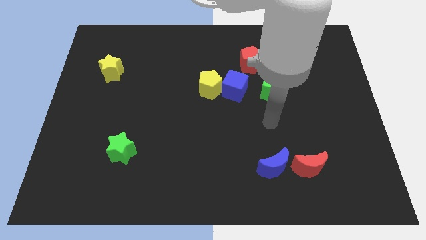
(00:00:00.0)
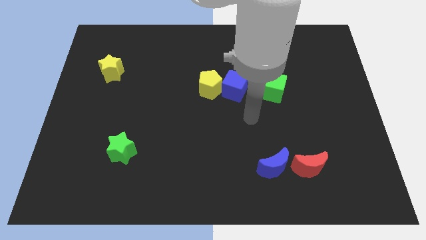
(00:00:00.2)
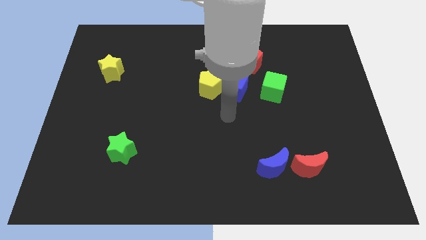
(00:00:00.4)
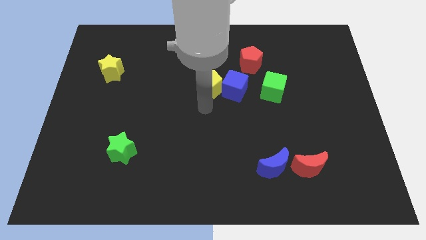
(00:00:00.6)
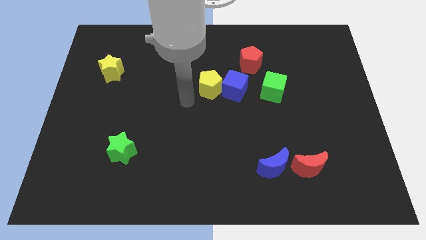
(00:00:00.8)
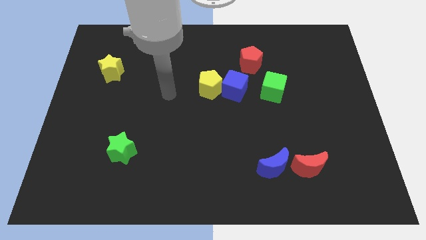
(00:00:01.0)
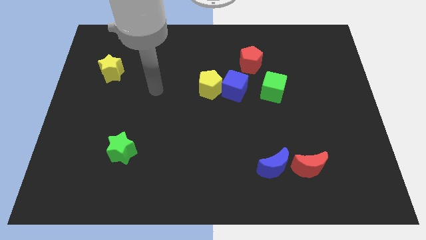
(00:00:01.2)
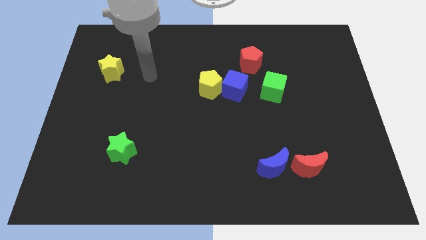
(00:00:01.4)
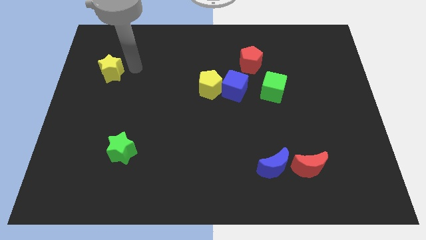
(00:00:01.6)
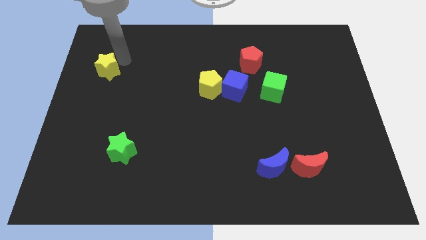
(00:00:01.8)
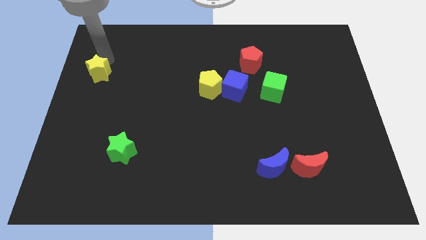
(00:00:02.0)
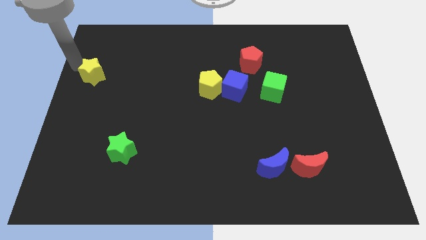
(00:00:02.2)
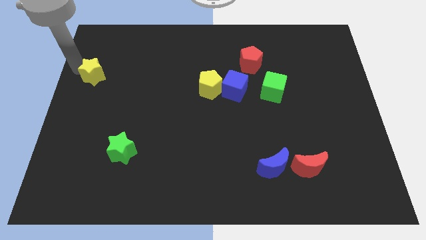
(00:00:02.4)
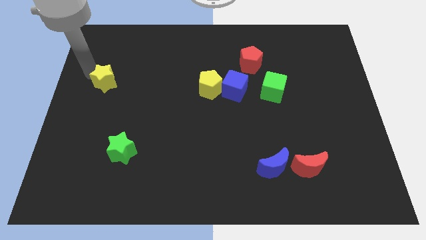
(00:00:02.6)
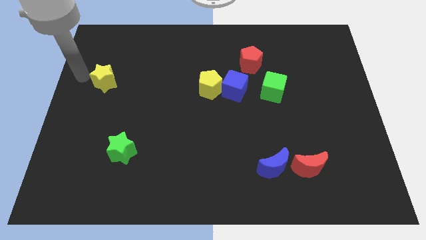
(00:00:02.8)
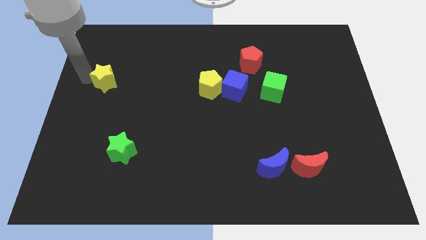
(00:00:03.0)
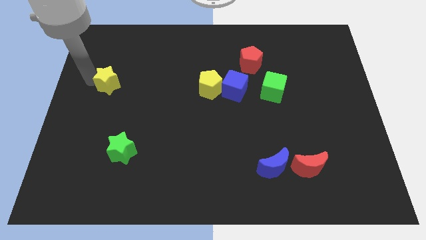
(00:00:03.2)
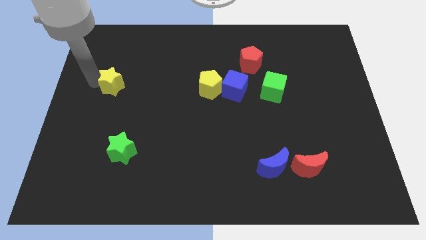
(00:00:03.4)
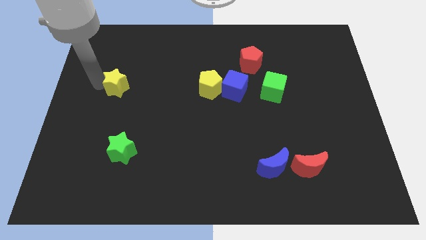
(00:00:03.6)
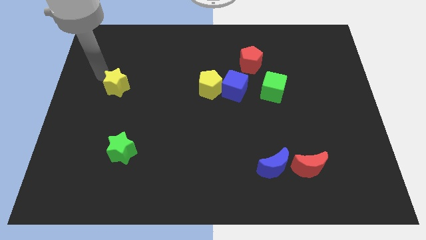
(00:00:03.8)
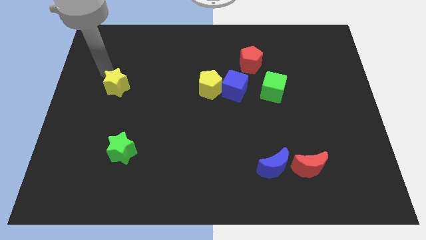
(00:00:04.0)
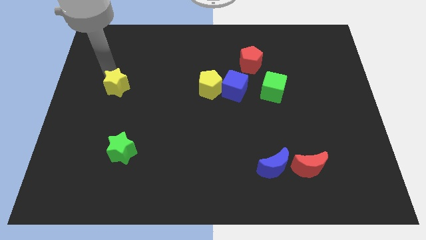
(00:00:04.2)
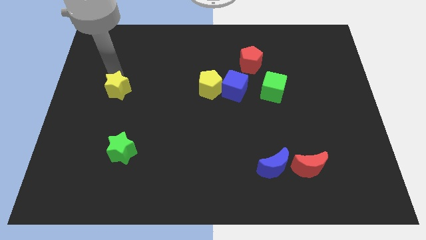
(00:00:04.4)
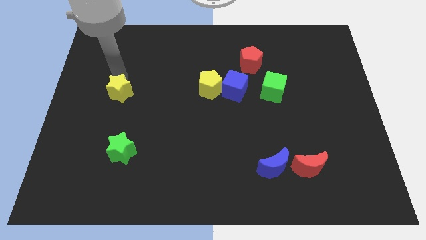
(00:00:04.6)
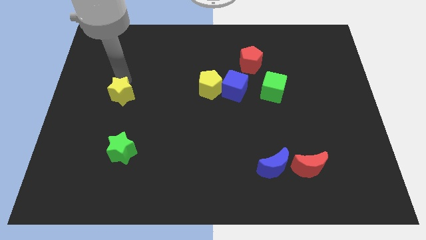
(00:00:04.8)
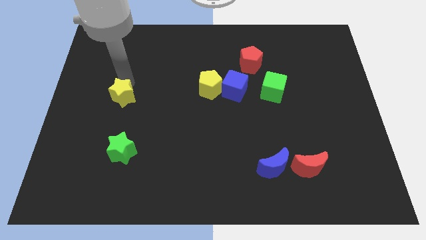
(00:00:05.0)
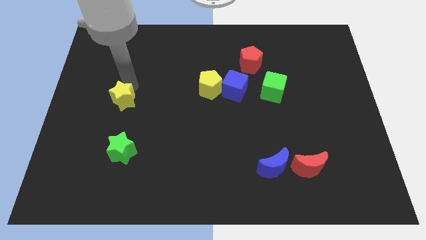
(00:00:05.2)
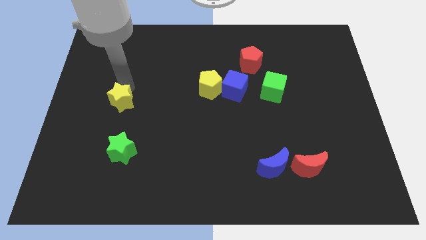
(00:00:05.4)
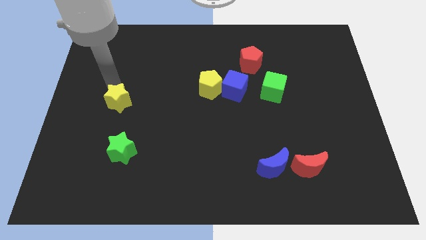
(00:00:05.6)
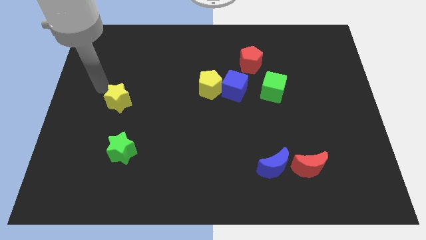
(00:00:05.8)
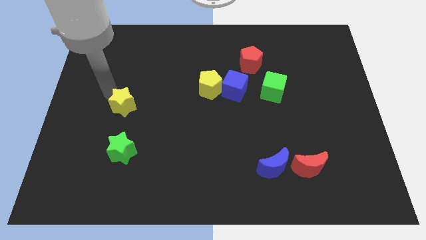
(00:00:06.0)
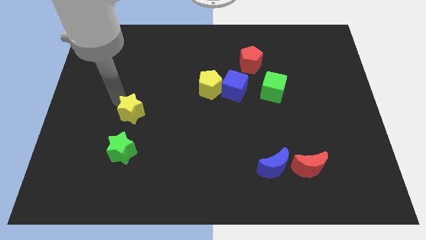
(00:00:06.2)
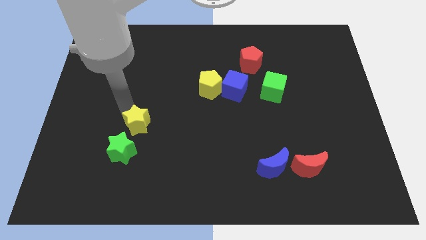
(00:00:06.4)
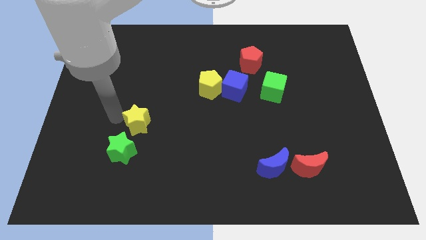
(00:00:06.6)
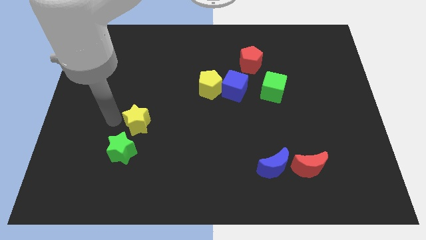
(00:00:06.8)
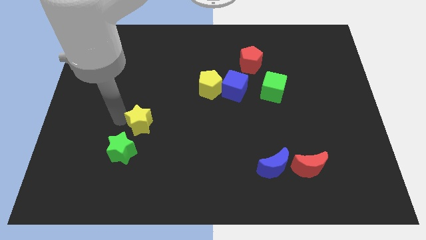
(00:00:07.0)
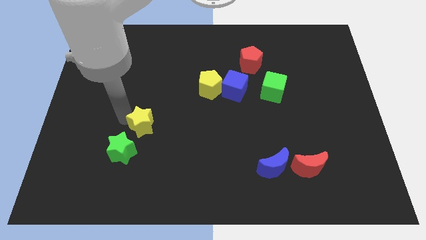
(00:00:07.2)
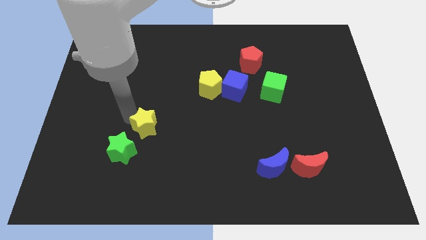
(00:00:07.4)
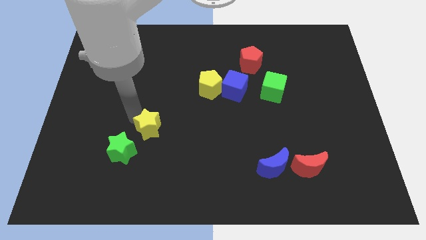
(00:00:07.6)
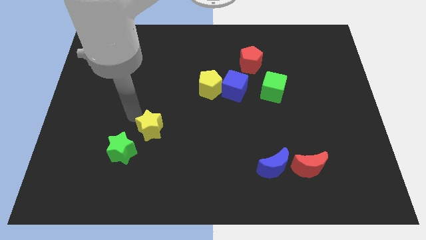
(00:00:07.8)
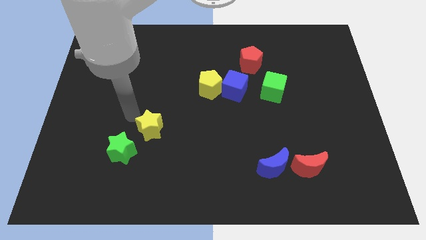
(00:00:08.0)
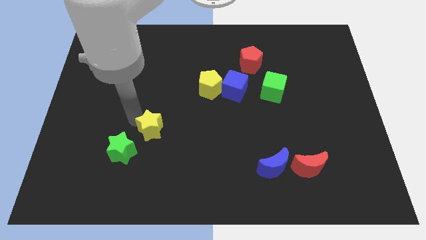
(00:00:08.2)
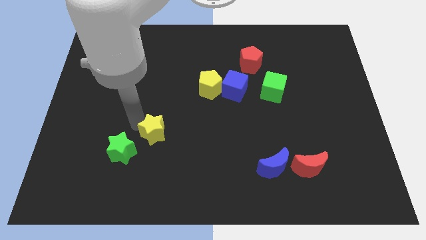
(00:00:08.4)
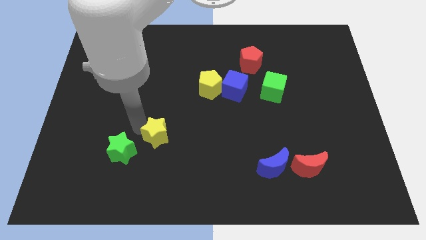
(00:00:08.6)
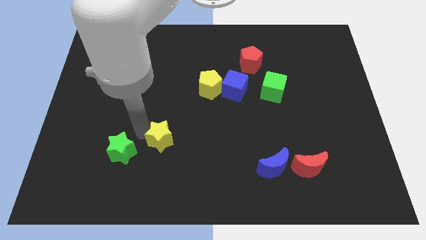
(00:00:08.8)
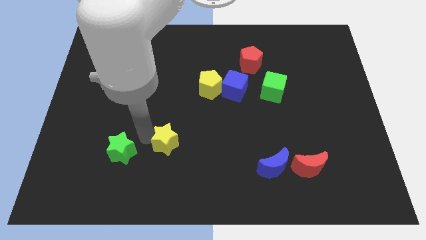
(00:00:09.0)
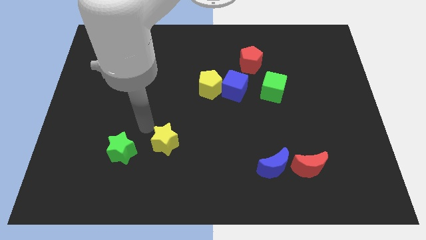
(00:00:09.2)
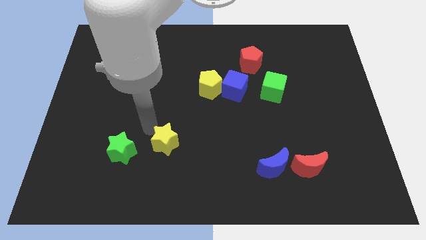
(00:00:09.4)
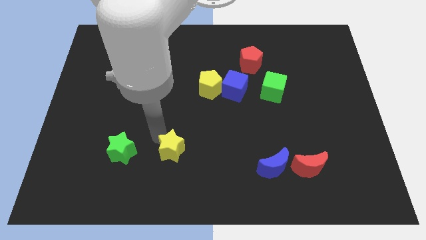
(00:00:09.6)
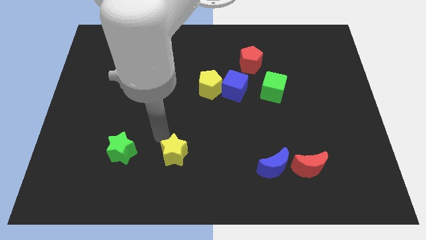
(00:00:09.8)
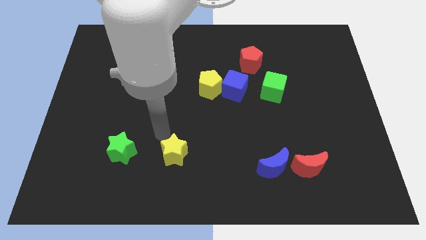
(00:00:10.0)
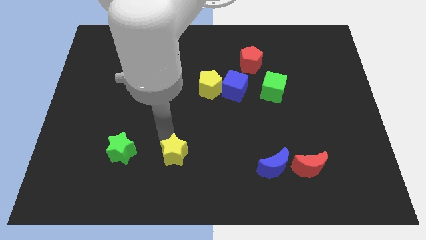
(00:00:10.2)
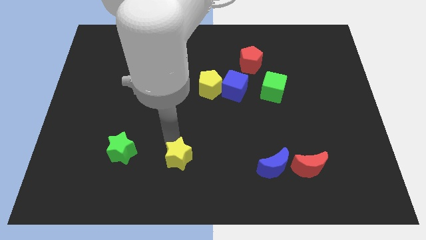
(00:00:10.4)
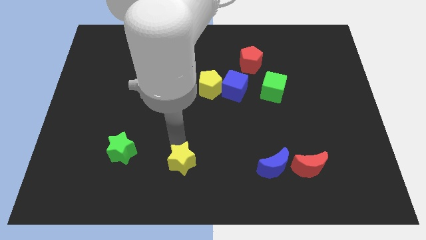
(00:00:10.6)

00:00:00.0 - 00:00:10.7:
push the yellow star to the bottom
